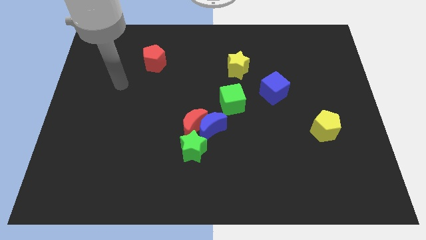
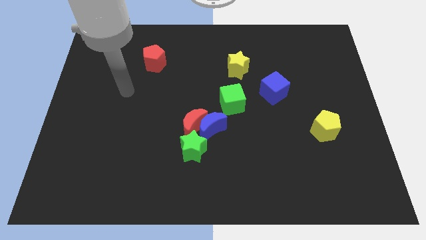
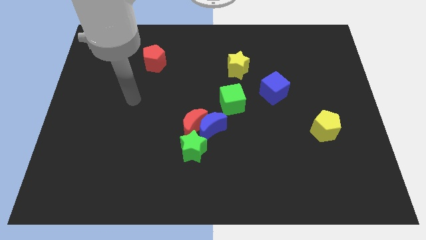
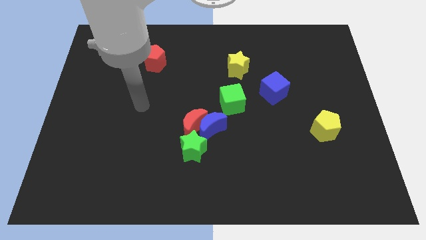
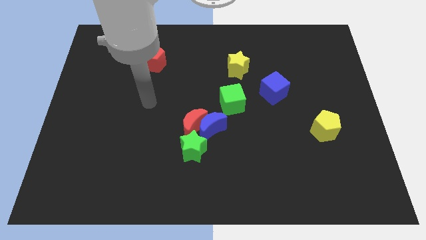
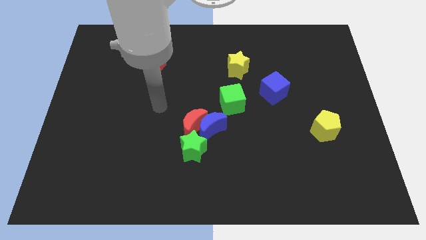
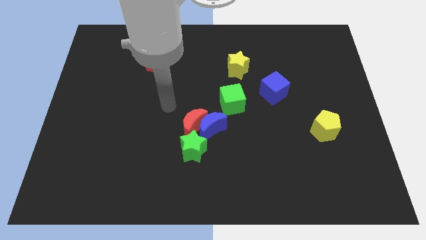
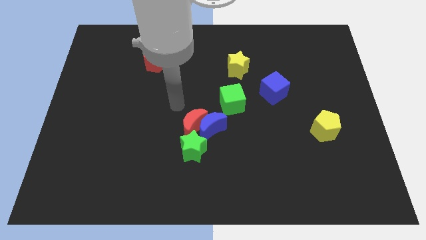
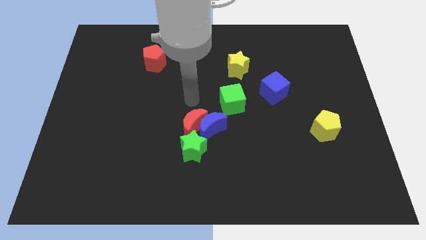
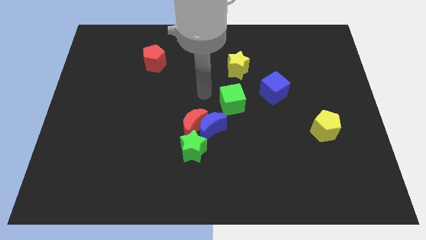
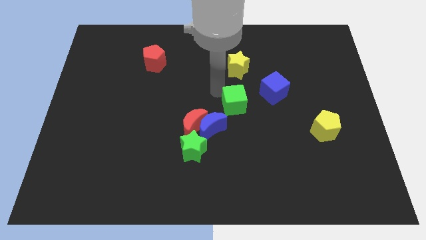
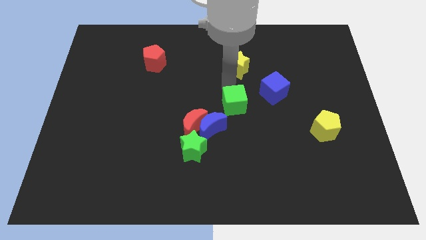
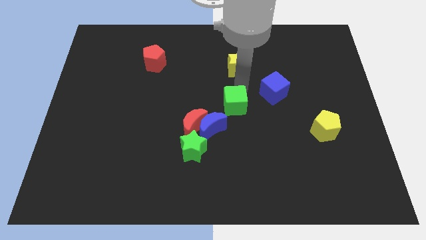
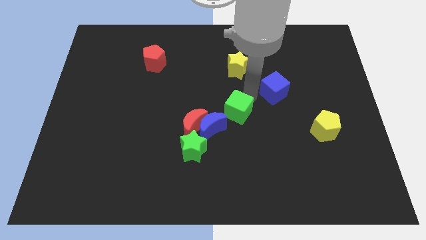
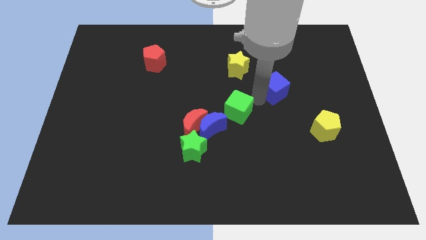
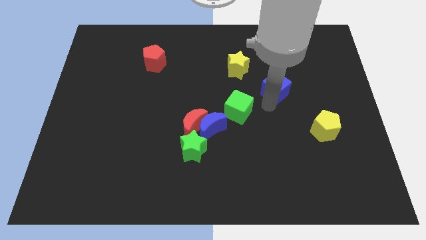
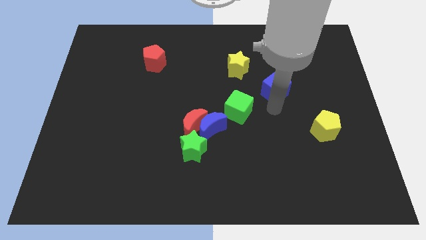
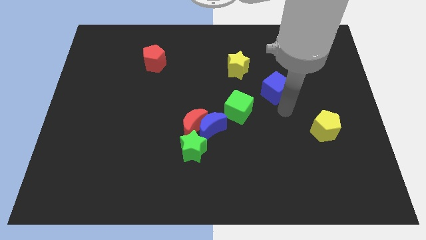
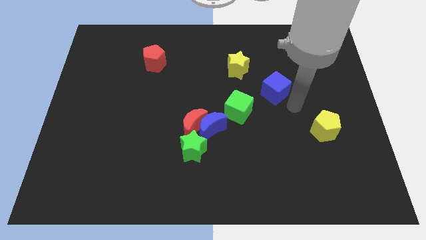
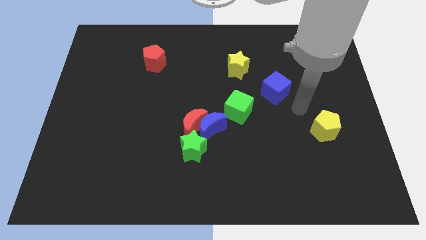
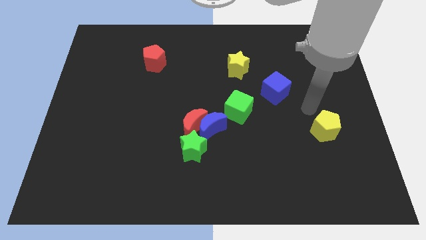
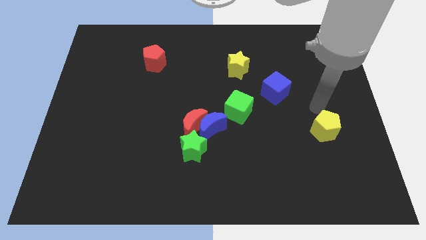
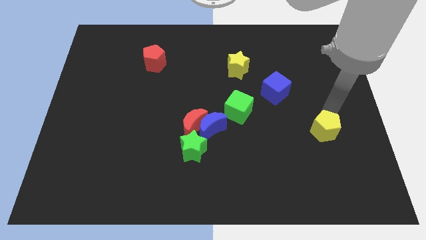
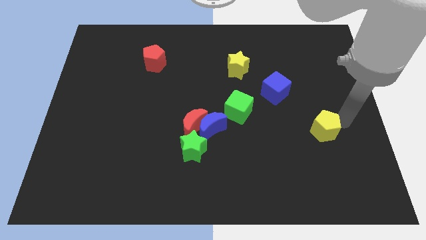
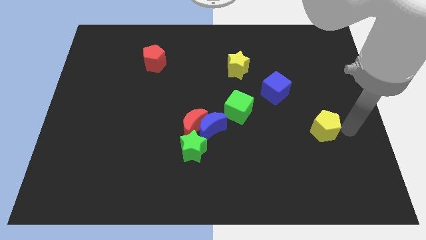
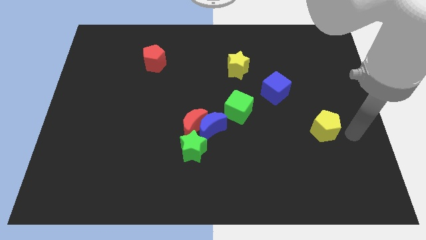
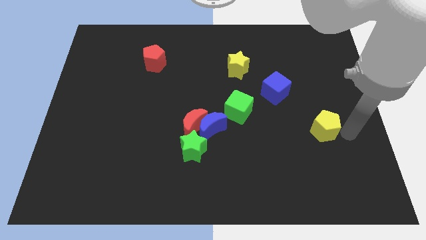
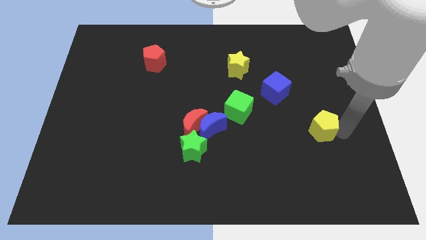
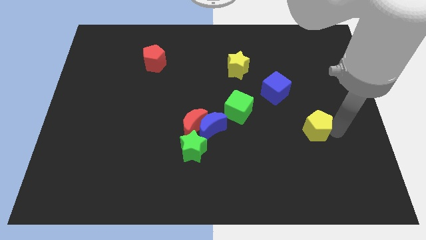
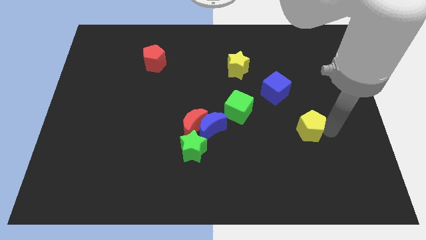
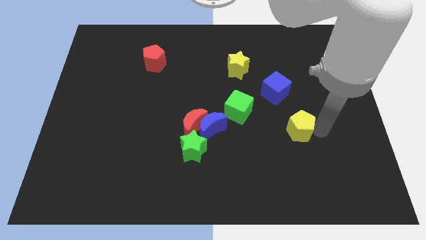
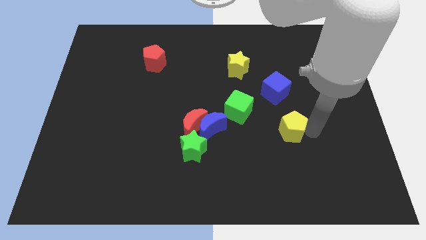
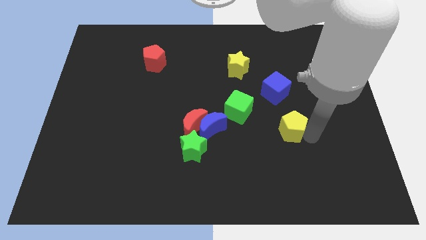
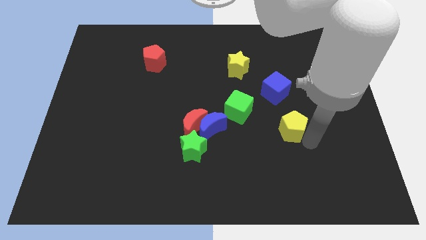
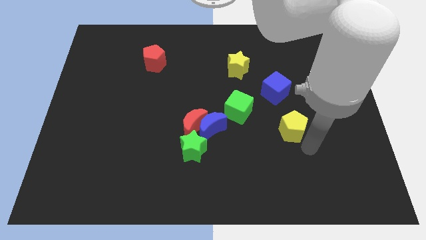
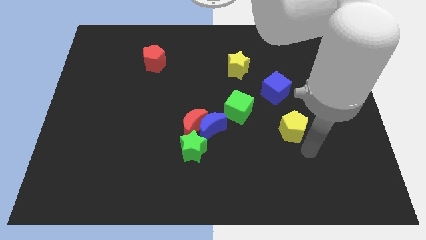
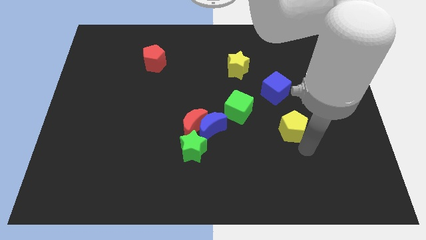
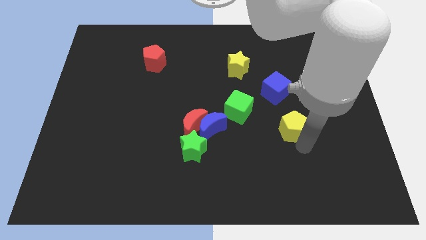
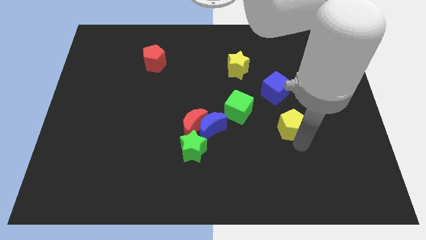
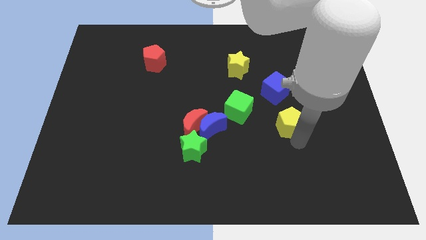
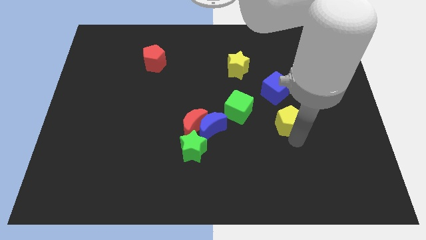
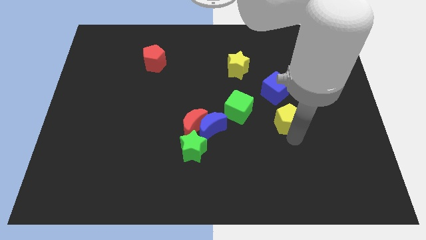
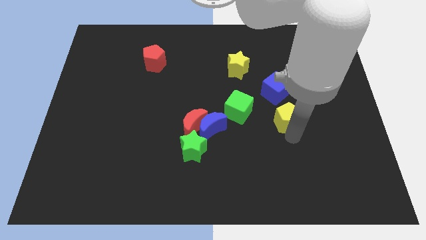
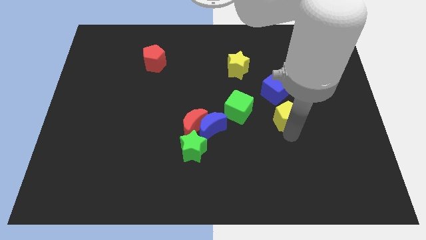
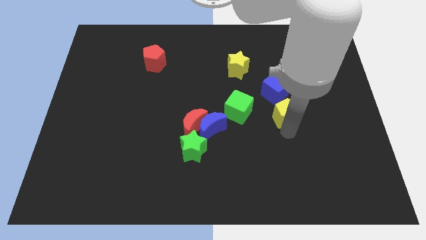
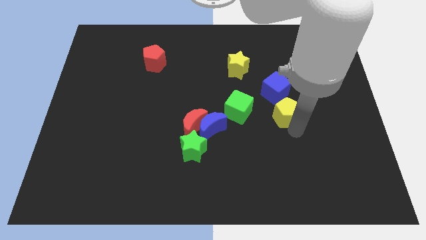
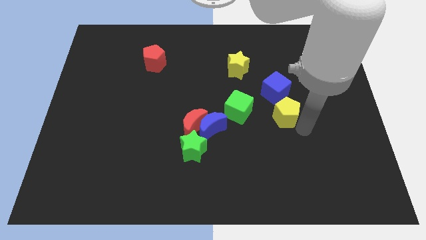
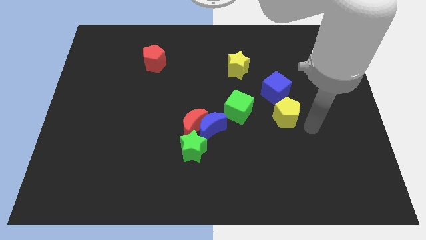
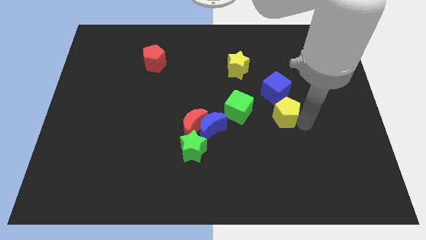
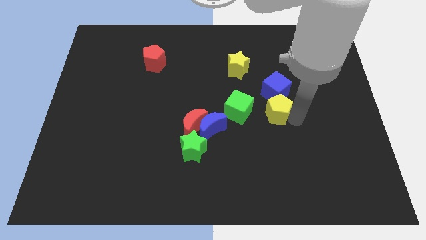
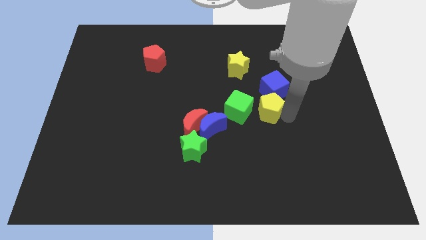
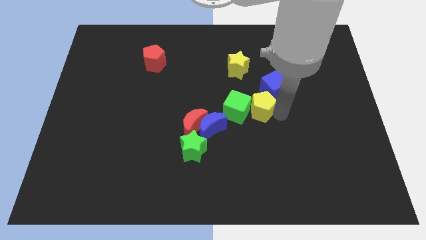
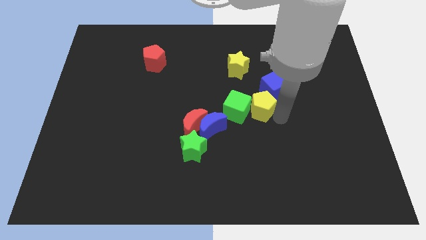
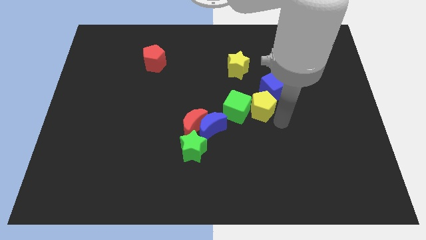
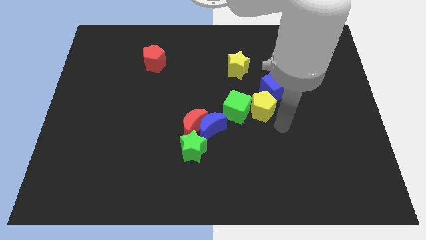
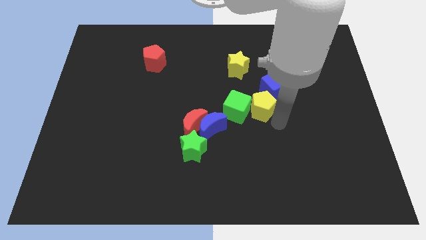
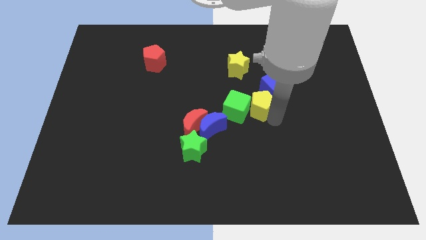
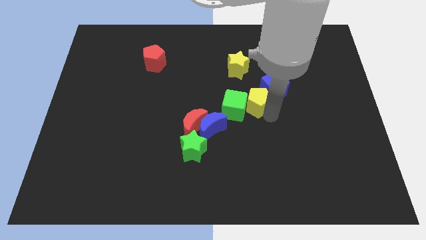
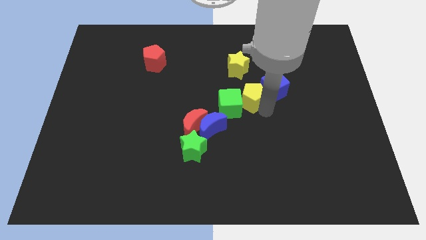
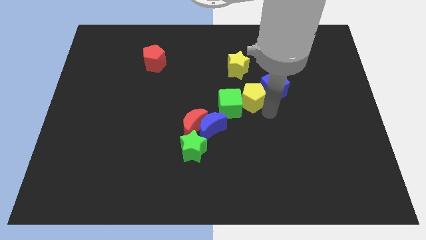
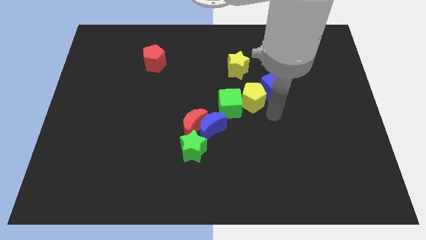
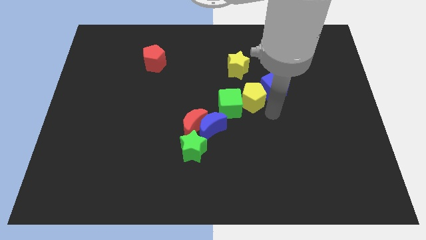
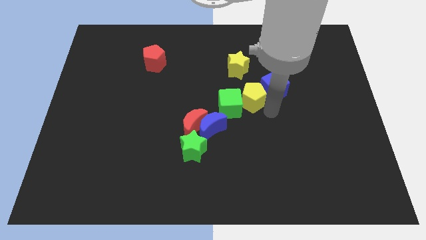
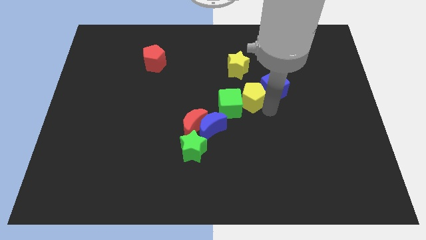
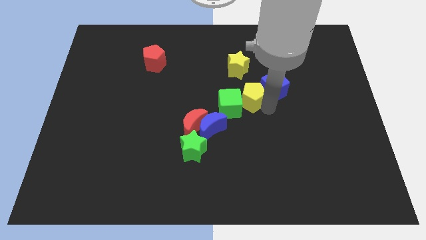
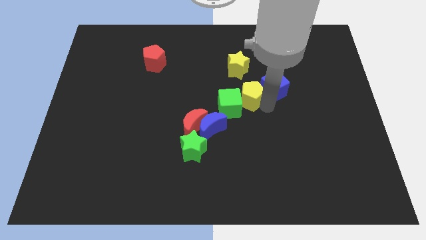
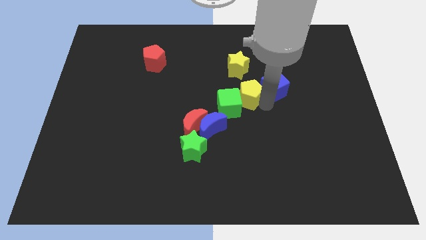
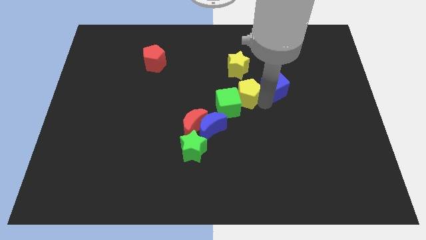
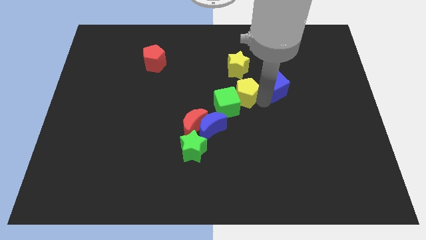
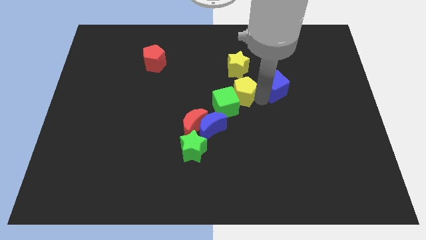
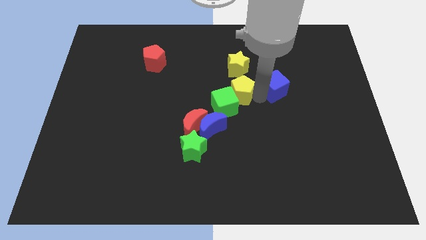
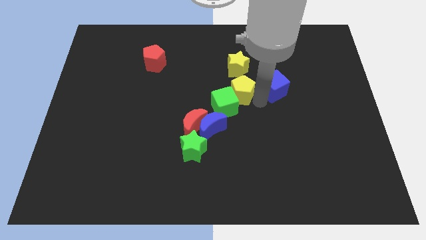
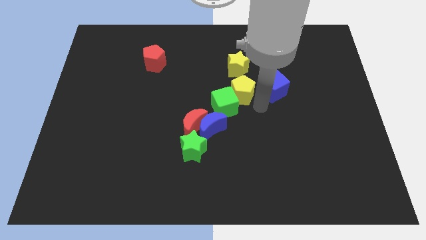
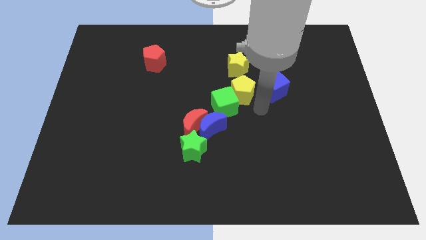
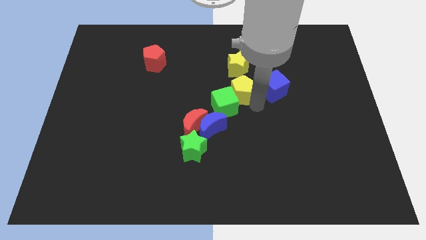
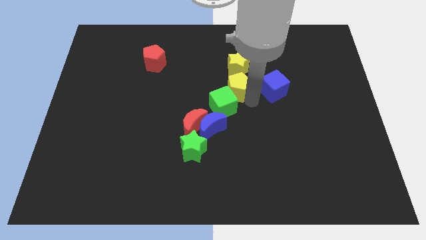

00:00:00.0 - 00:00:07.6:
slide the yellow pentagon up and then to the left

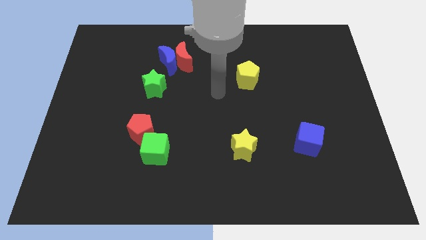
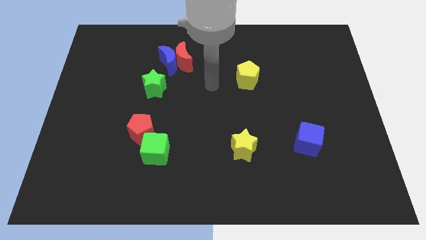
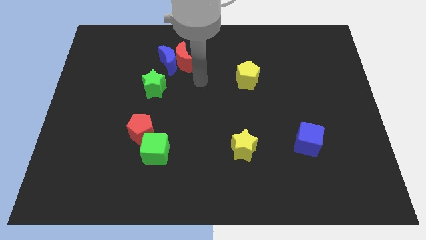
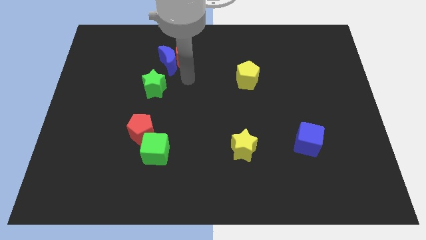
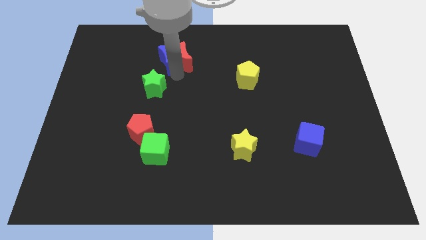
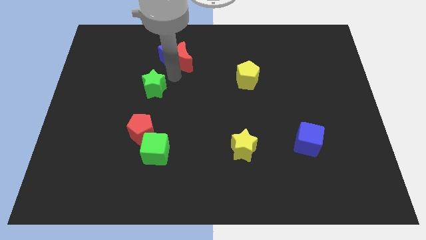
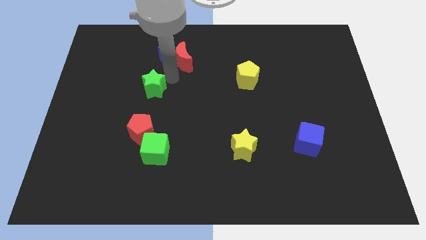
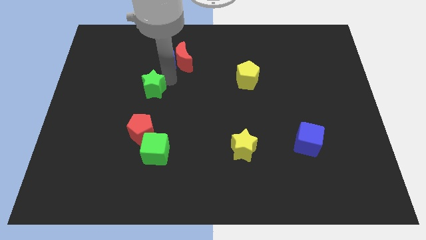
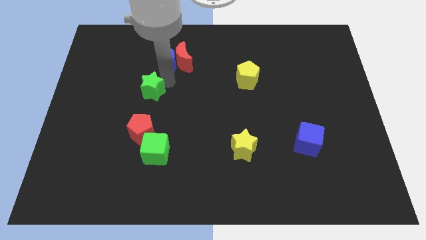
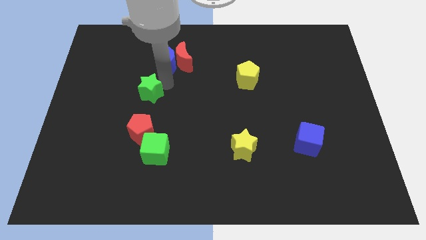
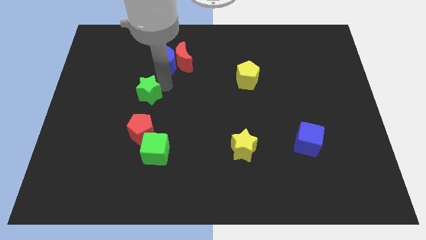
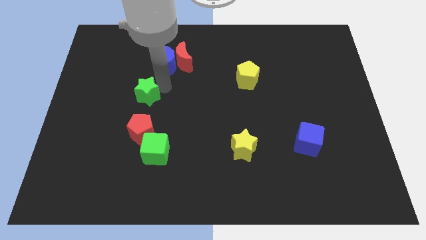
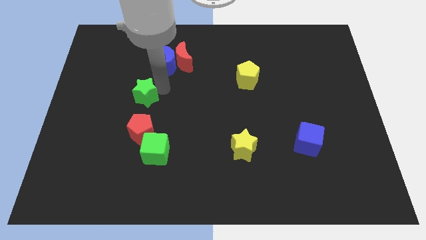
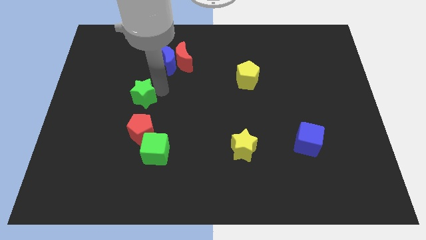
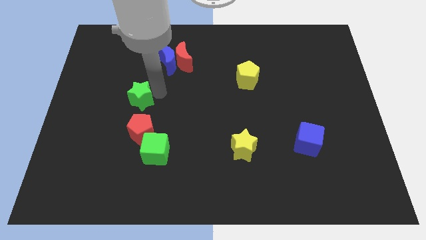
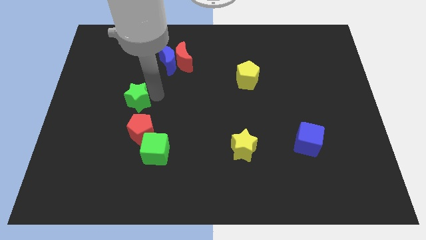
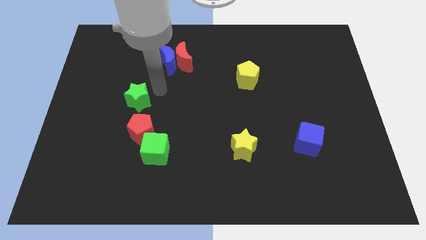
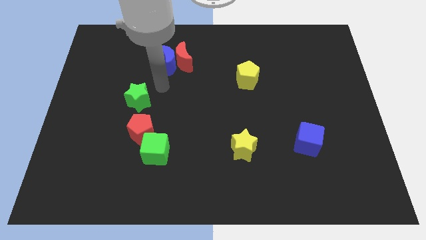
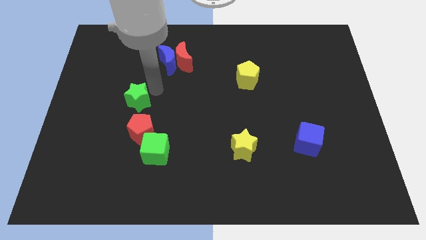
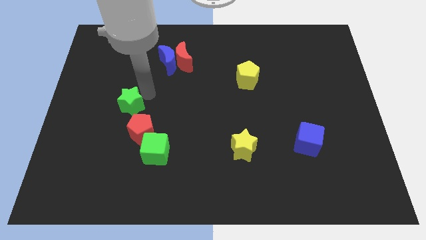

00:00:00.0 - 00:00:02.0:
slide the green star a bit down and to the left diagonally
